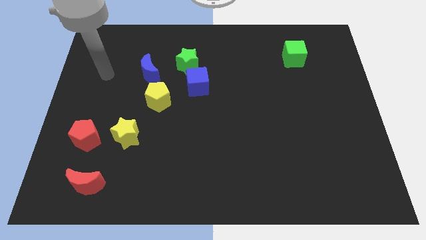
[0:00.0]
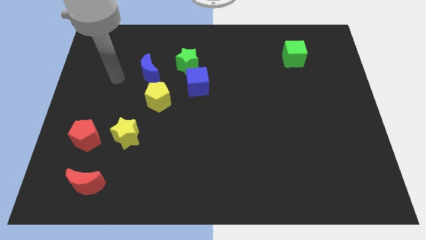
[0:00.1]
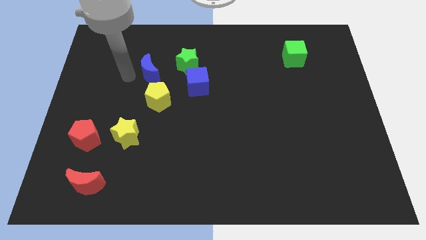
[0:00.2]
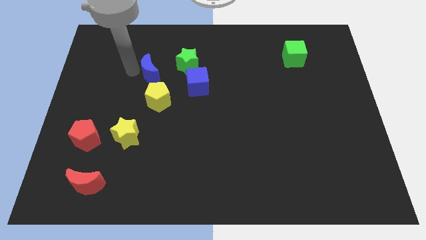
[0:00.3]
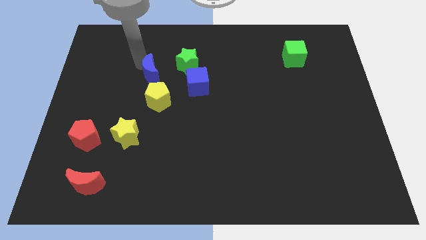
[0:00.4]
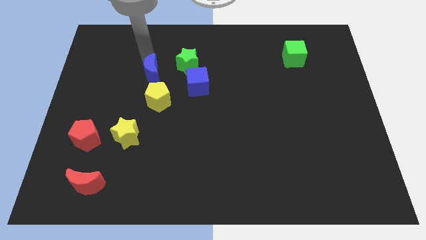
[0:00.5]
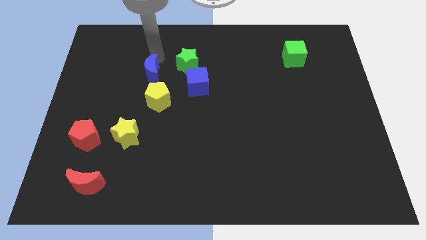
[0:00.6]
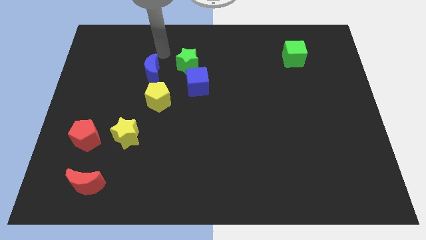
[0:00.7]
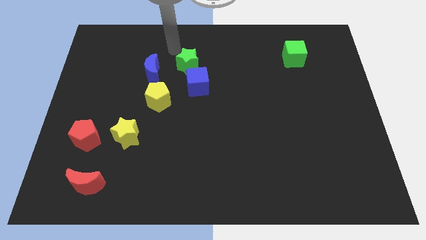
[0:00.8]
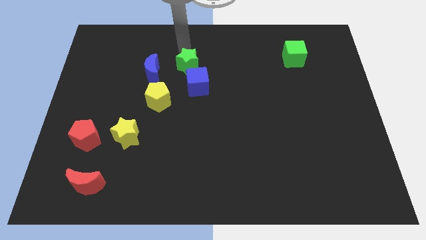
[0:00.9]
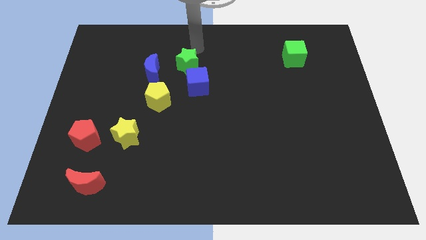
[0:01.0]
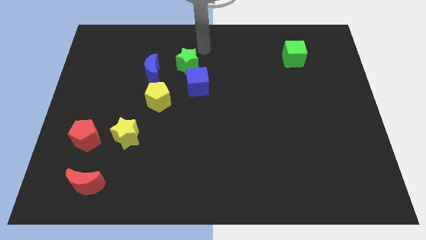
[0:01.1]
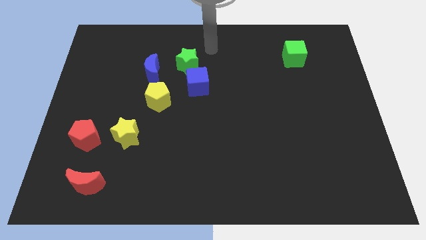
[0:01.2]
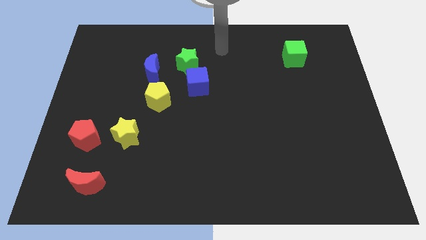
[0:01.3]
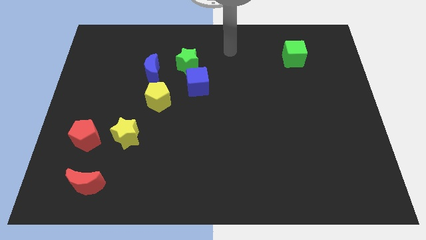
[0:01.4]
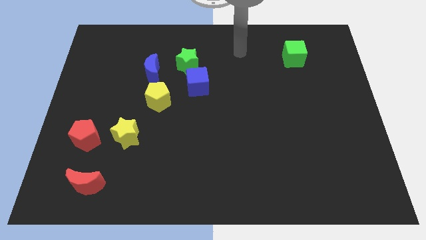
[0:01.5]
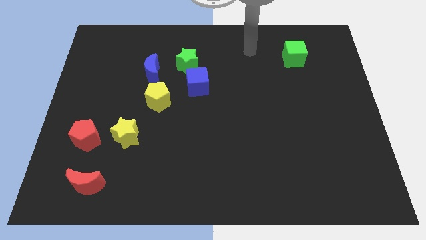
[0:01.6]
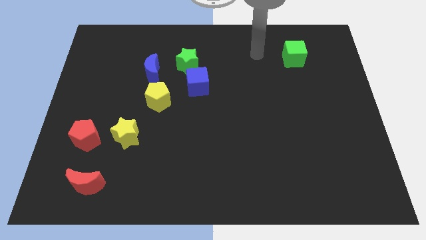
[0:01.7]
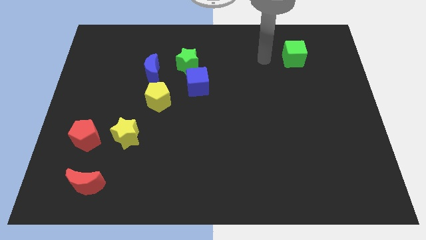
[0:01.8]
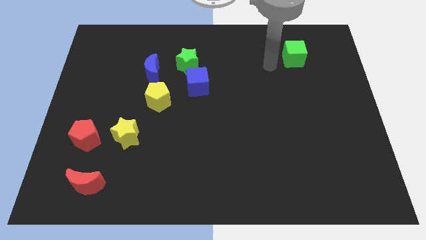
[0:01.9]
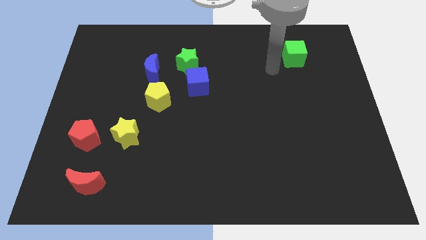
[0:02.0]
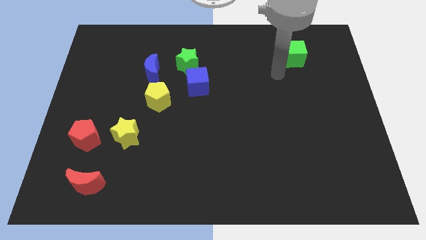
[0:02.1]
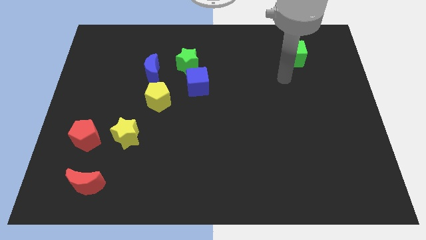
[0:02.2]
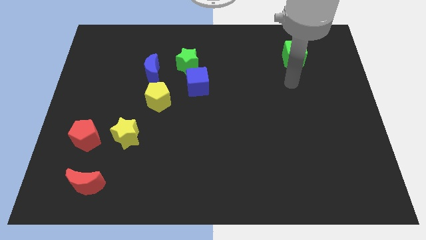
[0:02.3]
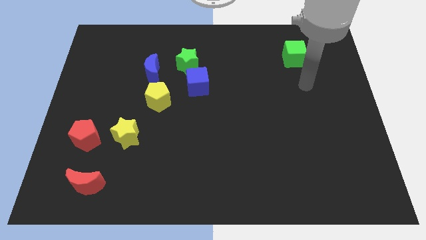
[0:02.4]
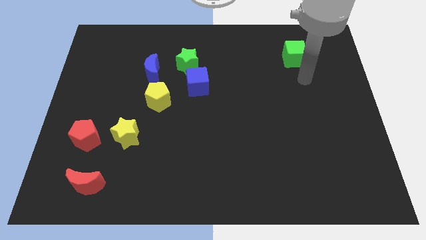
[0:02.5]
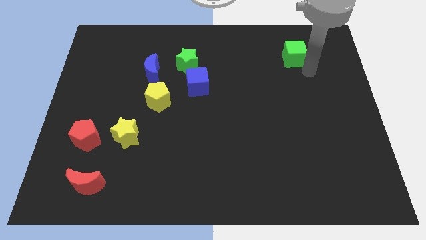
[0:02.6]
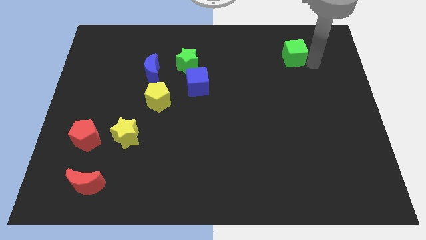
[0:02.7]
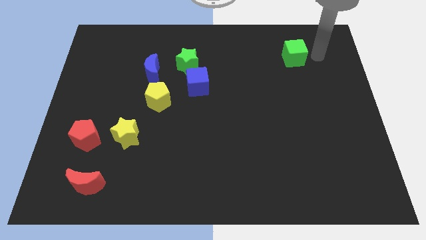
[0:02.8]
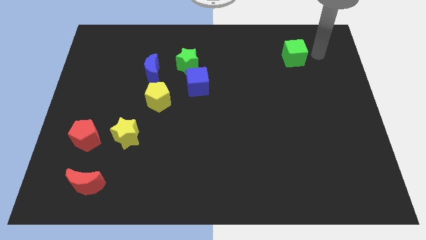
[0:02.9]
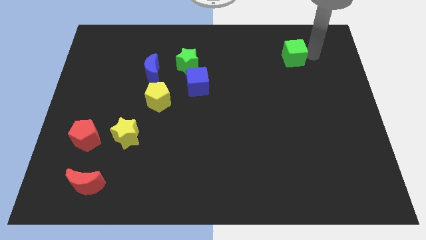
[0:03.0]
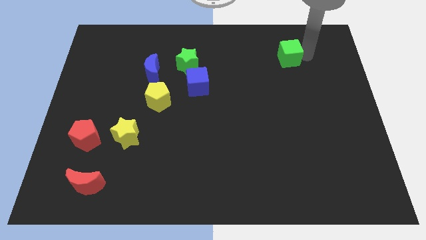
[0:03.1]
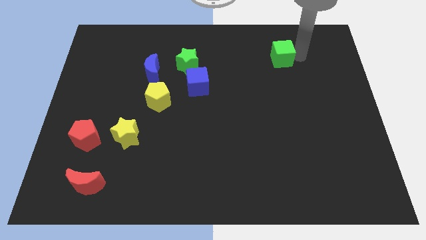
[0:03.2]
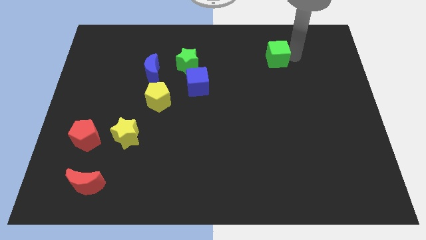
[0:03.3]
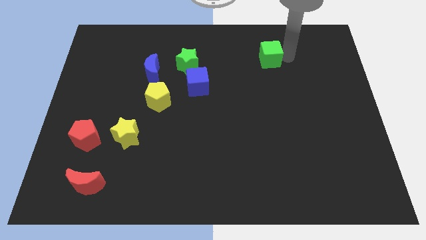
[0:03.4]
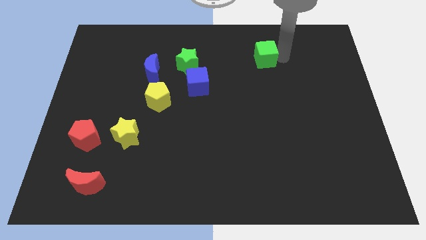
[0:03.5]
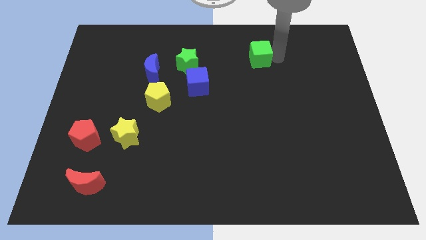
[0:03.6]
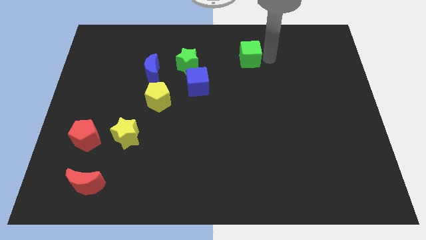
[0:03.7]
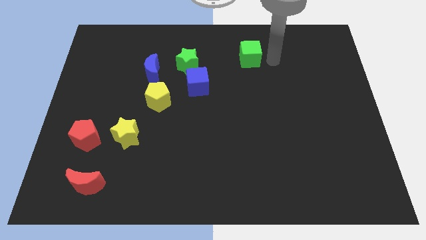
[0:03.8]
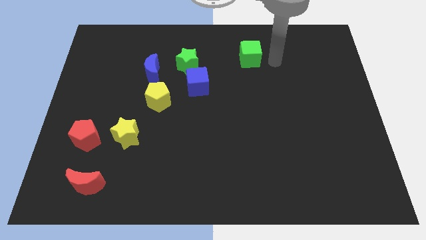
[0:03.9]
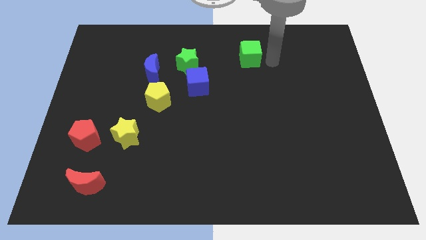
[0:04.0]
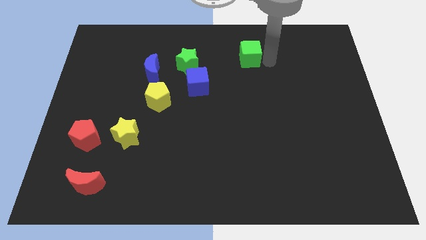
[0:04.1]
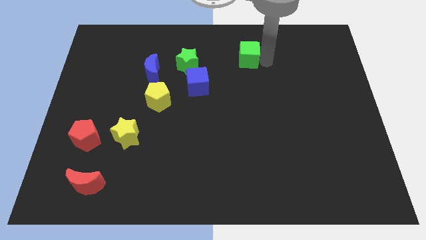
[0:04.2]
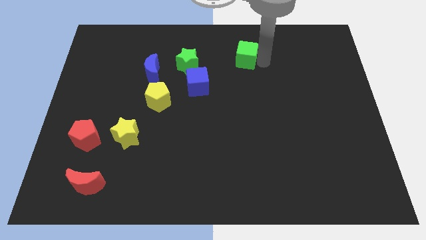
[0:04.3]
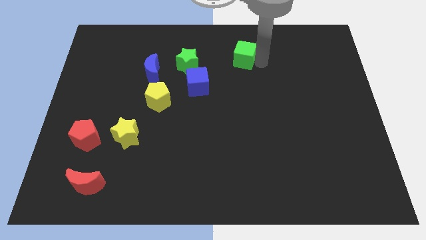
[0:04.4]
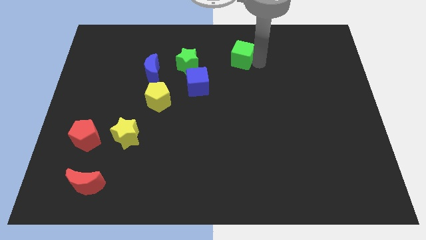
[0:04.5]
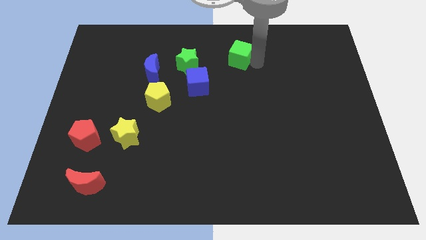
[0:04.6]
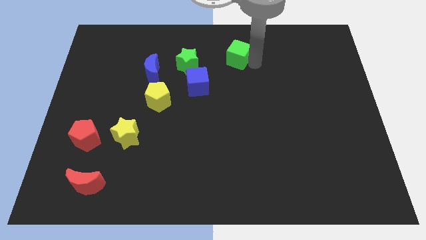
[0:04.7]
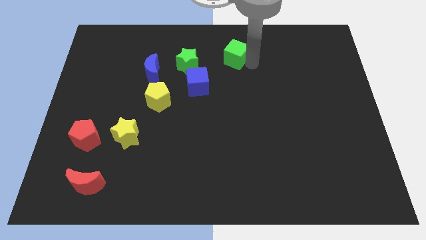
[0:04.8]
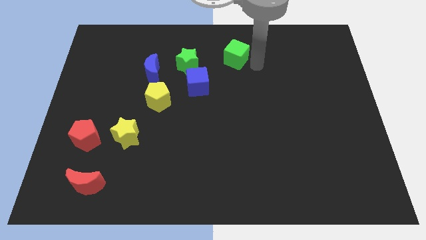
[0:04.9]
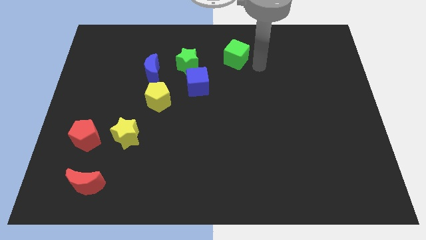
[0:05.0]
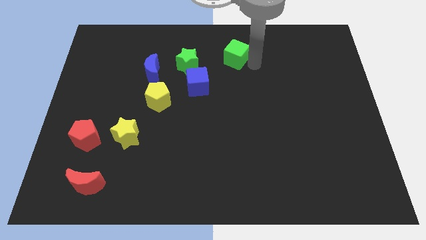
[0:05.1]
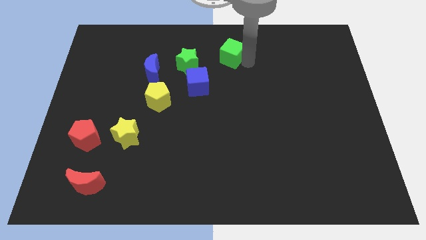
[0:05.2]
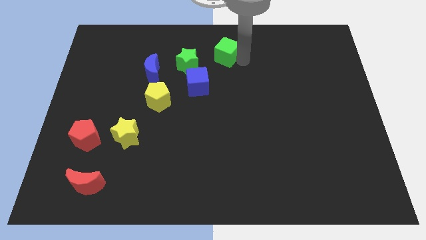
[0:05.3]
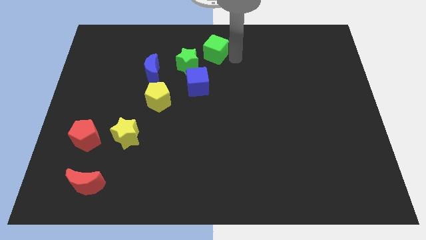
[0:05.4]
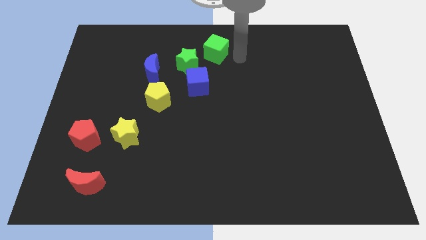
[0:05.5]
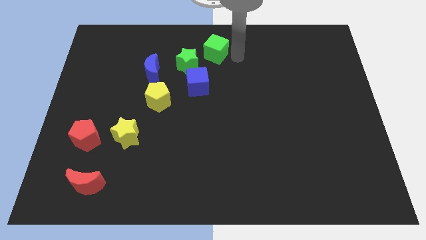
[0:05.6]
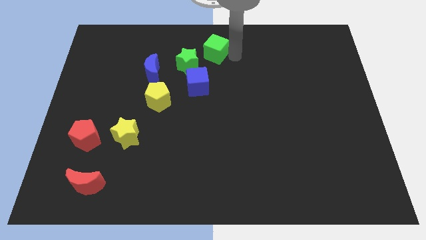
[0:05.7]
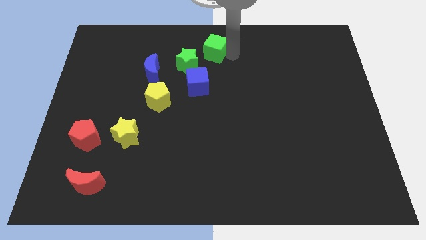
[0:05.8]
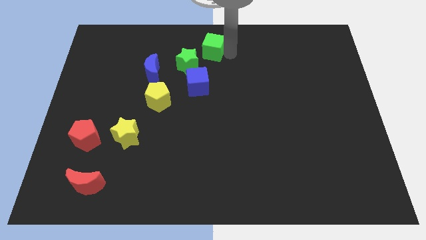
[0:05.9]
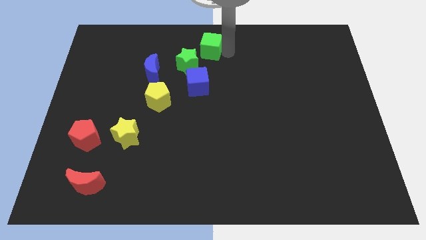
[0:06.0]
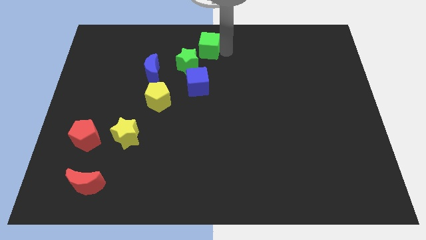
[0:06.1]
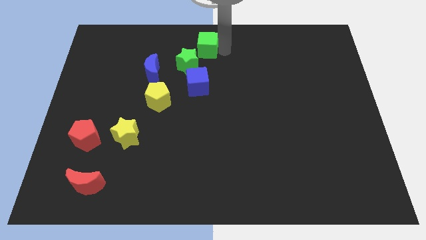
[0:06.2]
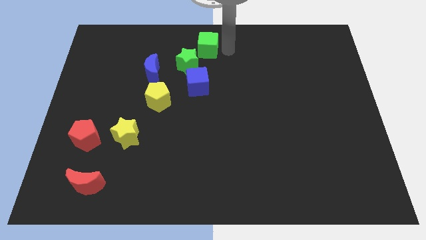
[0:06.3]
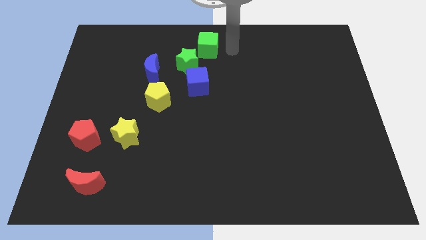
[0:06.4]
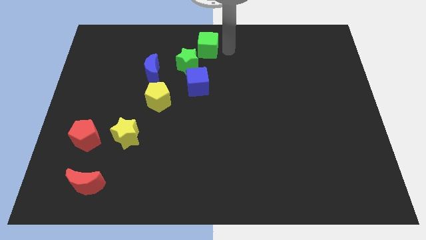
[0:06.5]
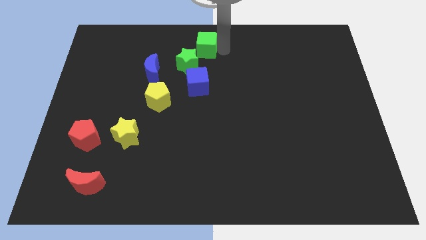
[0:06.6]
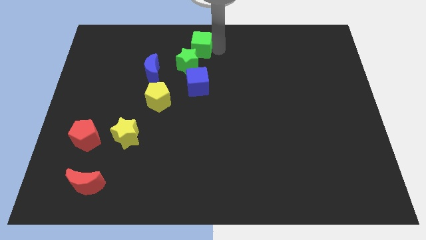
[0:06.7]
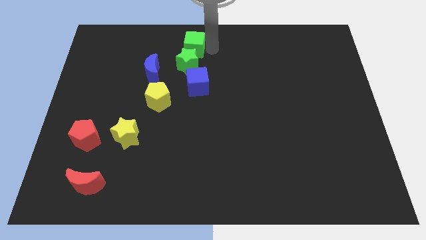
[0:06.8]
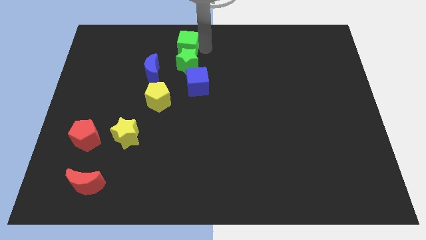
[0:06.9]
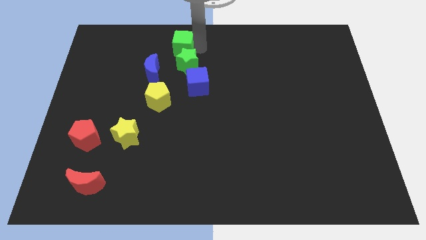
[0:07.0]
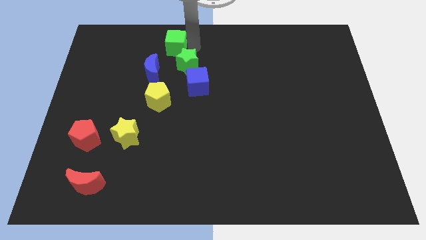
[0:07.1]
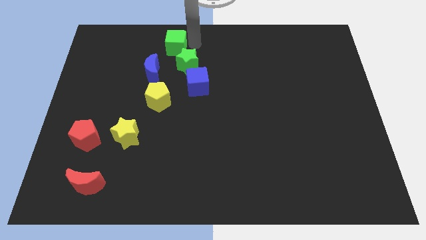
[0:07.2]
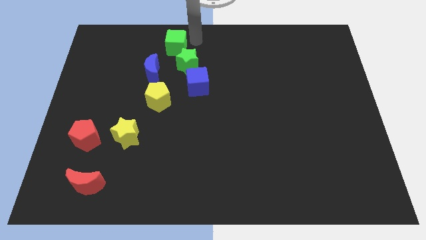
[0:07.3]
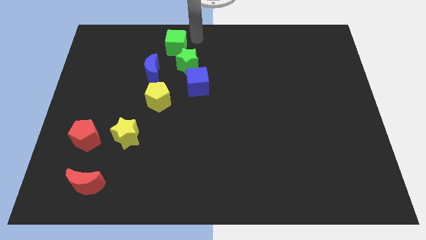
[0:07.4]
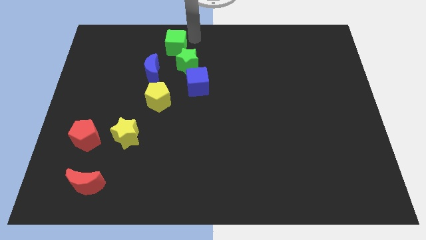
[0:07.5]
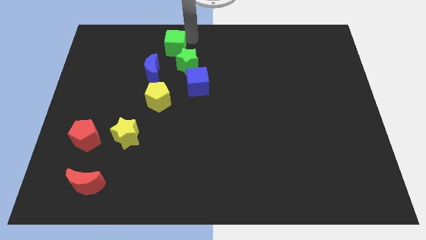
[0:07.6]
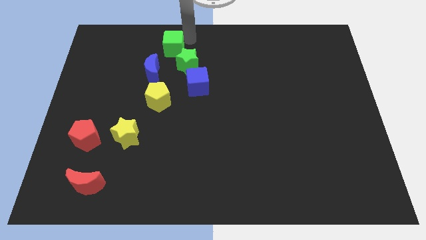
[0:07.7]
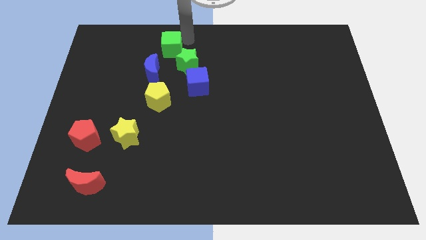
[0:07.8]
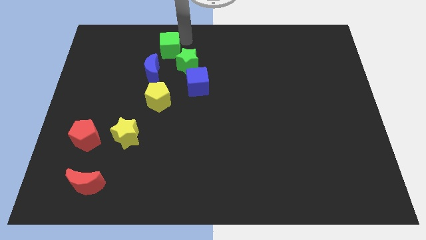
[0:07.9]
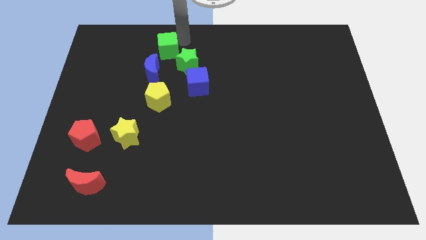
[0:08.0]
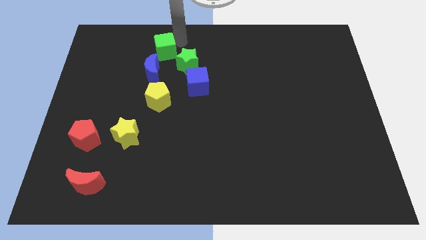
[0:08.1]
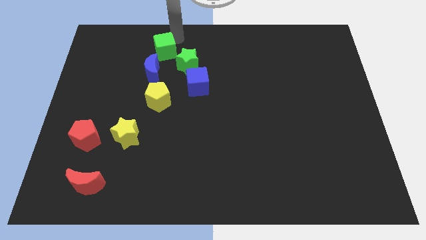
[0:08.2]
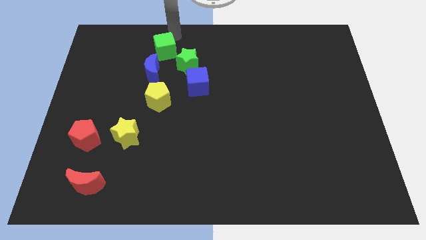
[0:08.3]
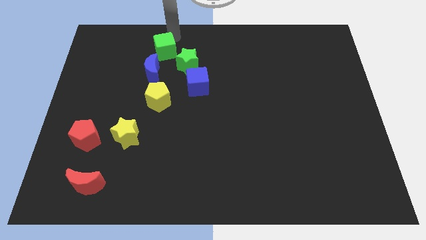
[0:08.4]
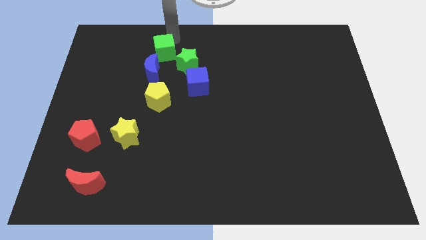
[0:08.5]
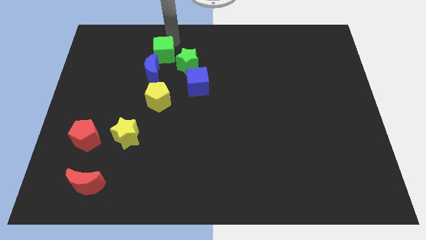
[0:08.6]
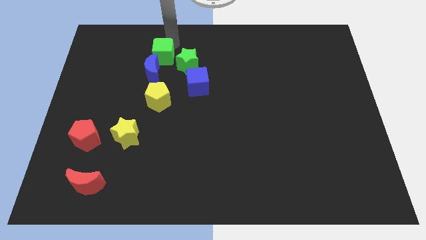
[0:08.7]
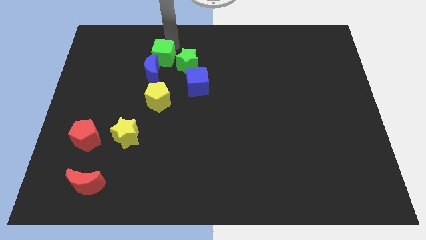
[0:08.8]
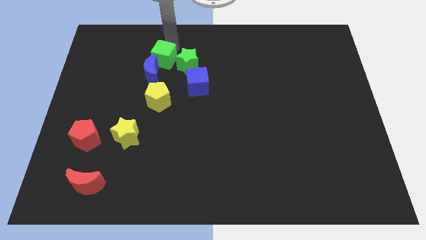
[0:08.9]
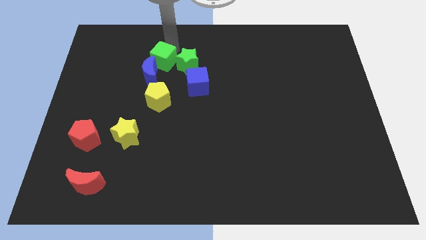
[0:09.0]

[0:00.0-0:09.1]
slide the green cube to the blue moon
